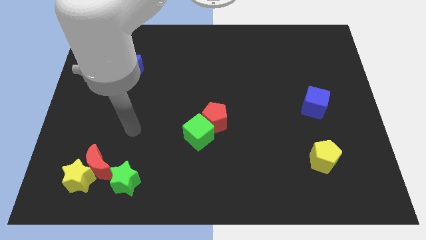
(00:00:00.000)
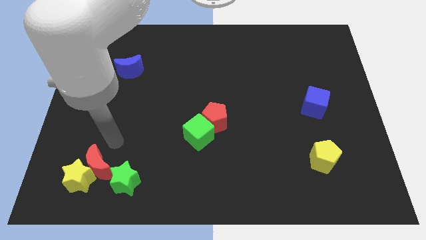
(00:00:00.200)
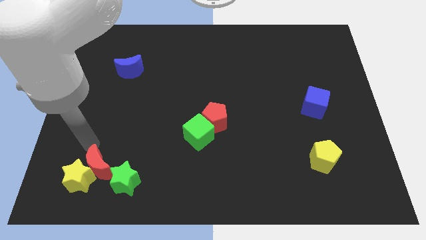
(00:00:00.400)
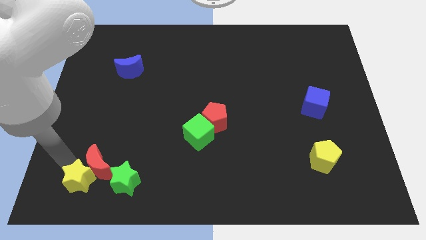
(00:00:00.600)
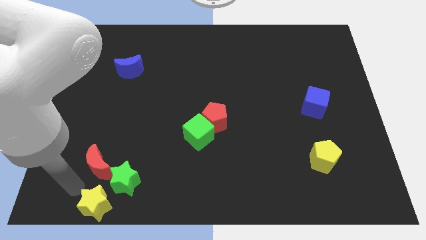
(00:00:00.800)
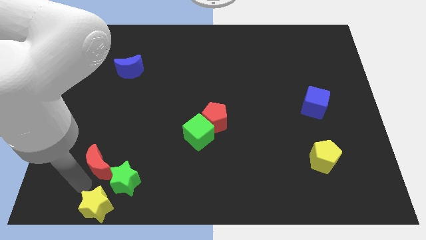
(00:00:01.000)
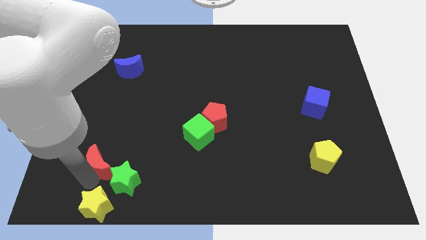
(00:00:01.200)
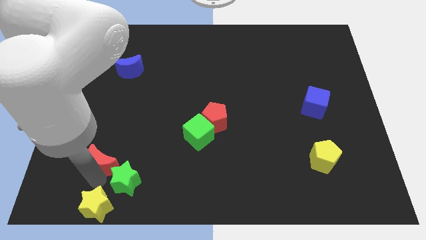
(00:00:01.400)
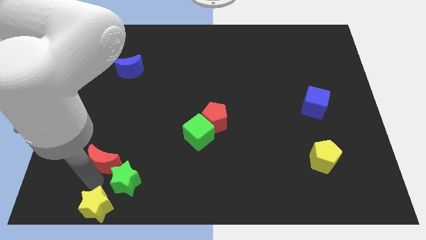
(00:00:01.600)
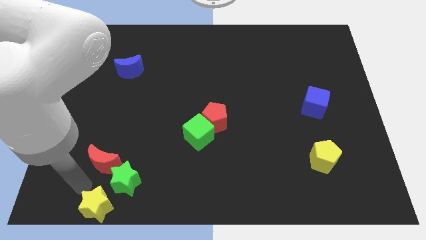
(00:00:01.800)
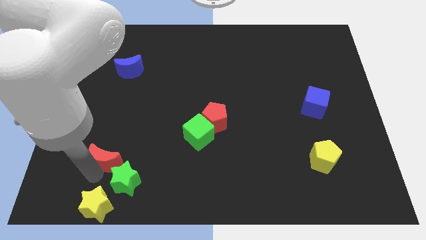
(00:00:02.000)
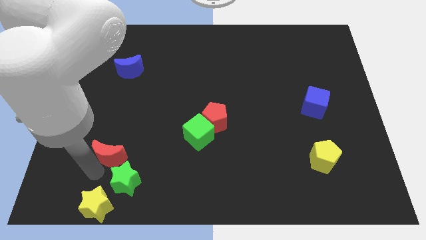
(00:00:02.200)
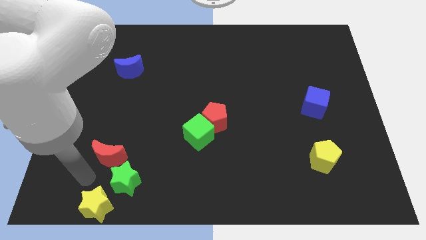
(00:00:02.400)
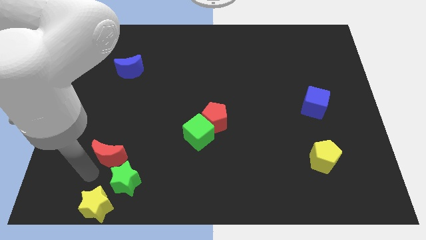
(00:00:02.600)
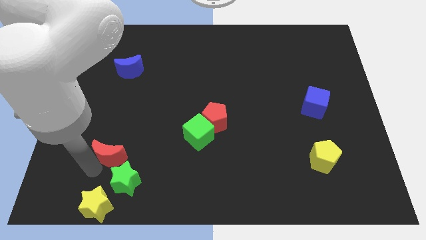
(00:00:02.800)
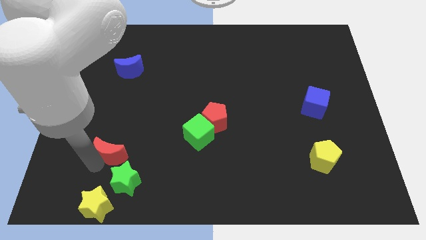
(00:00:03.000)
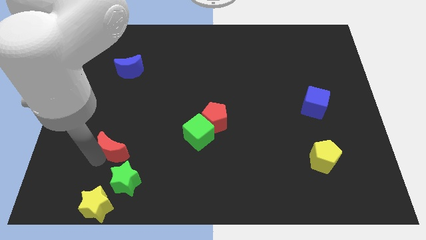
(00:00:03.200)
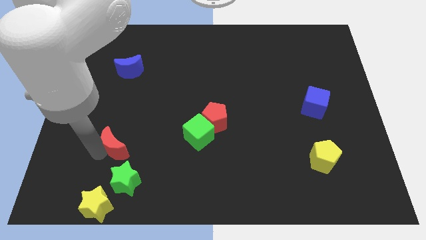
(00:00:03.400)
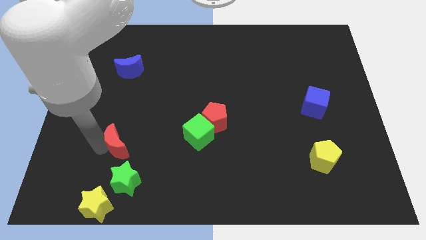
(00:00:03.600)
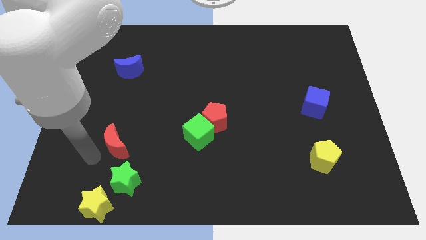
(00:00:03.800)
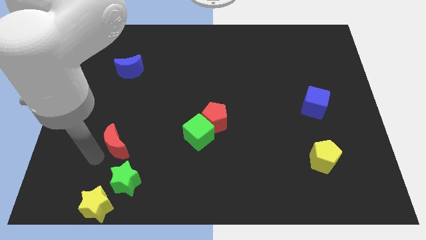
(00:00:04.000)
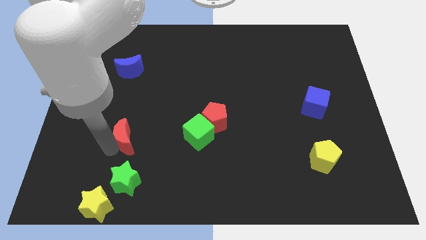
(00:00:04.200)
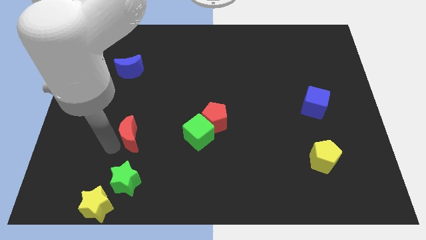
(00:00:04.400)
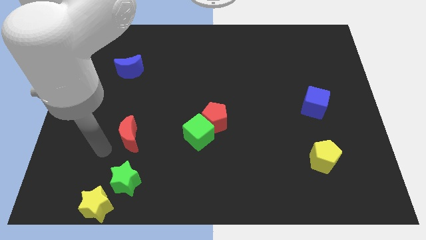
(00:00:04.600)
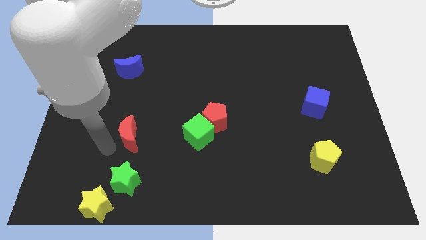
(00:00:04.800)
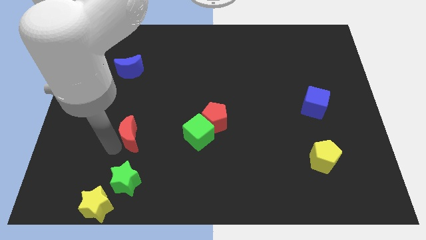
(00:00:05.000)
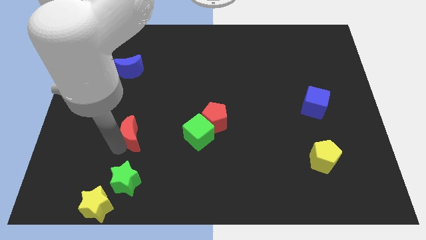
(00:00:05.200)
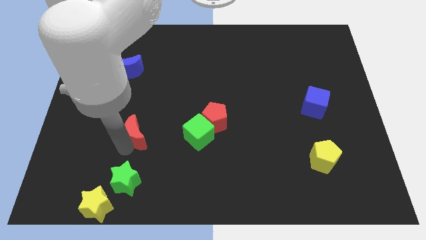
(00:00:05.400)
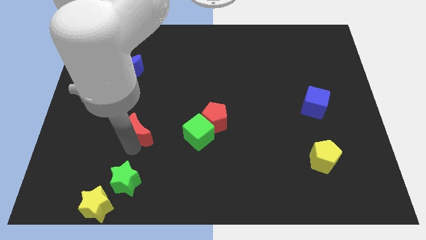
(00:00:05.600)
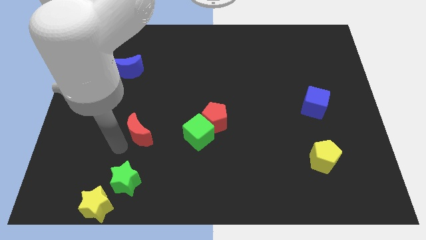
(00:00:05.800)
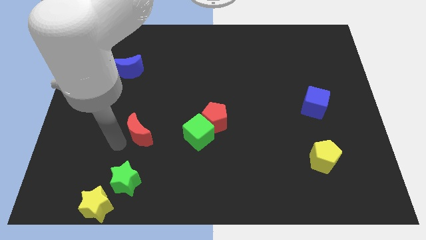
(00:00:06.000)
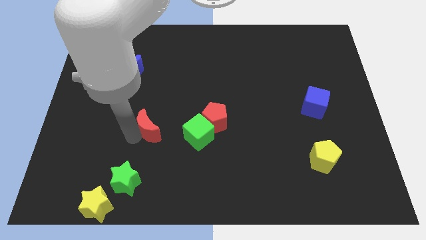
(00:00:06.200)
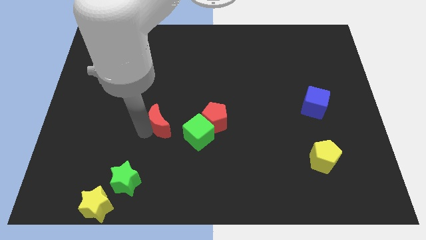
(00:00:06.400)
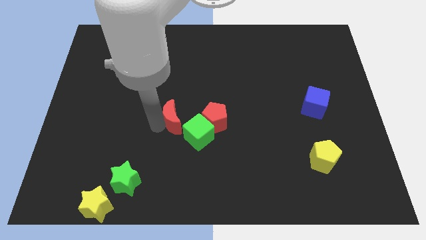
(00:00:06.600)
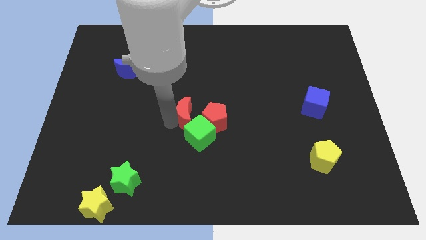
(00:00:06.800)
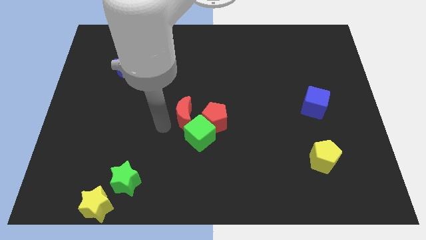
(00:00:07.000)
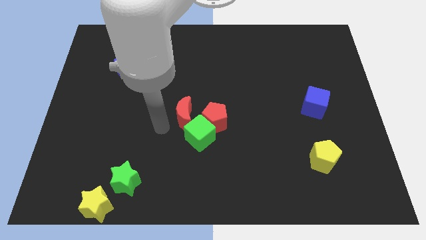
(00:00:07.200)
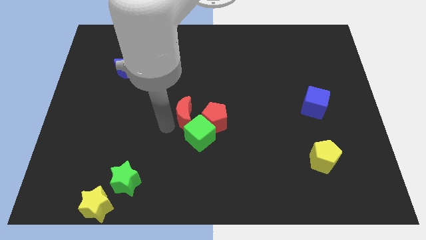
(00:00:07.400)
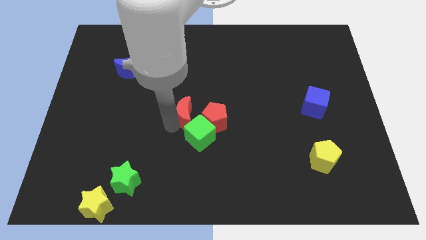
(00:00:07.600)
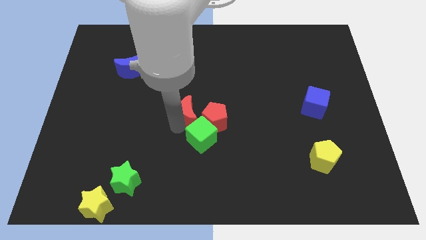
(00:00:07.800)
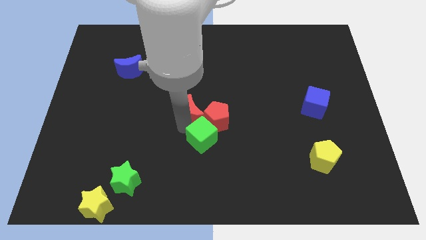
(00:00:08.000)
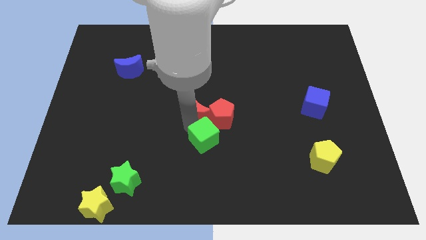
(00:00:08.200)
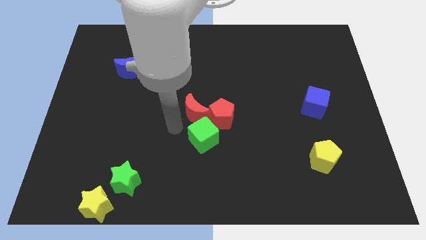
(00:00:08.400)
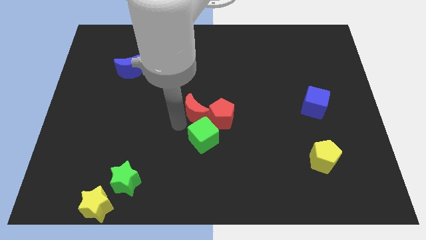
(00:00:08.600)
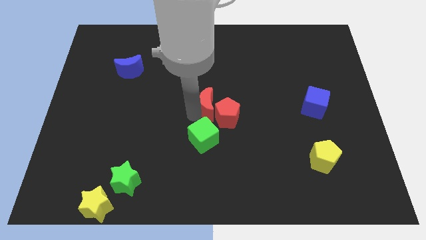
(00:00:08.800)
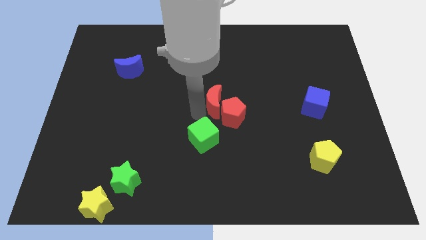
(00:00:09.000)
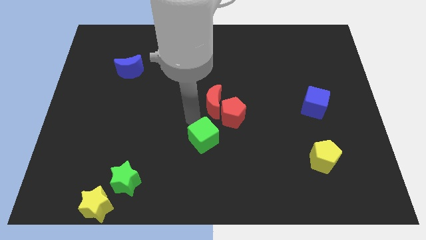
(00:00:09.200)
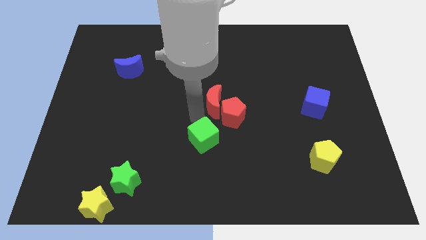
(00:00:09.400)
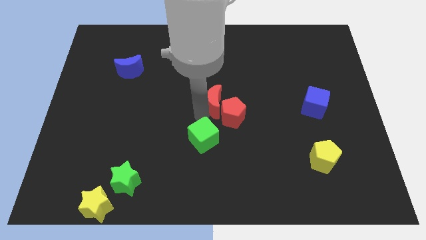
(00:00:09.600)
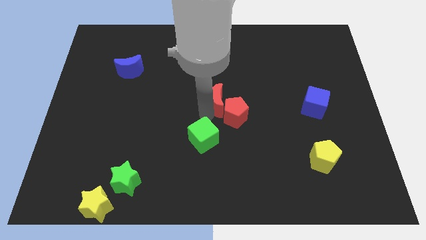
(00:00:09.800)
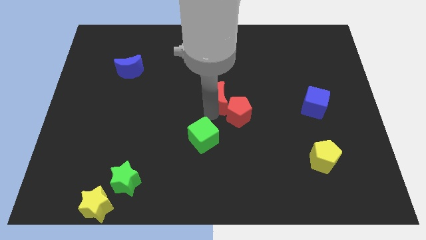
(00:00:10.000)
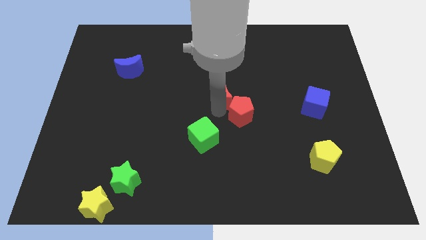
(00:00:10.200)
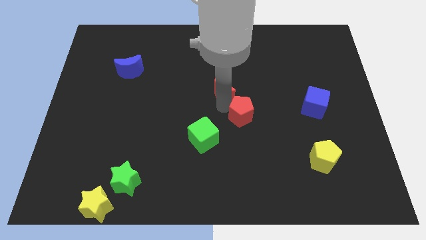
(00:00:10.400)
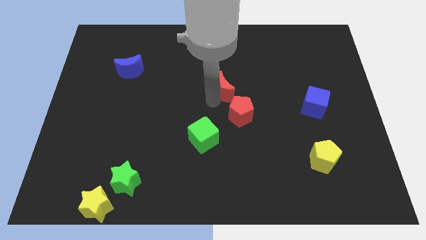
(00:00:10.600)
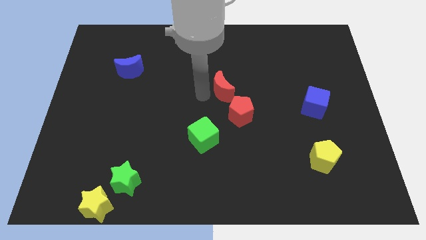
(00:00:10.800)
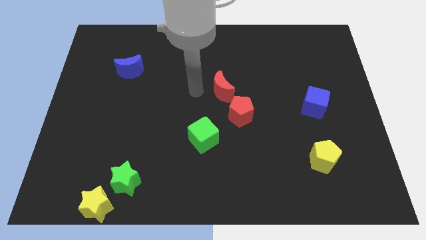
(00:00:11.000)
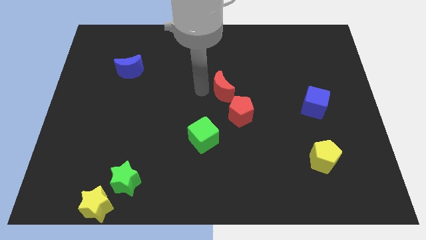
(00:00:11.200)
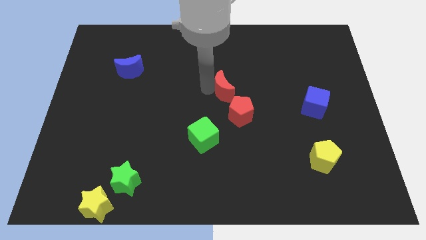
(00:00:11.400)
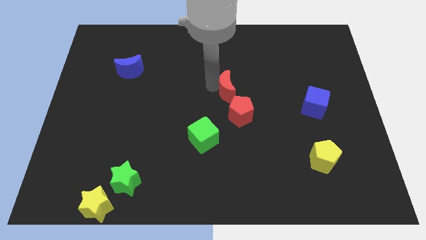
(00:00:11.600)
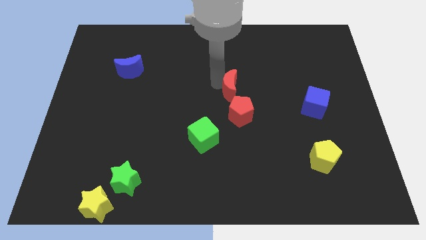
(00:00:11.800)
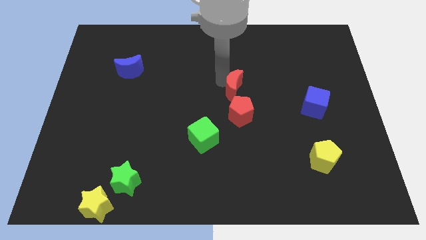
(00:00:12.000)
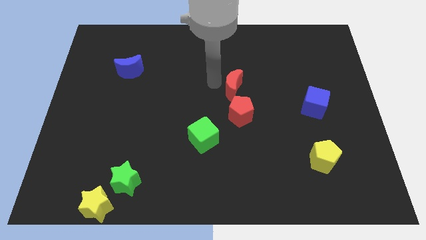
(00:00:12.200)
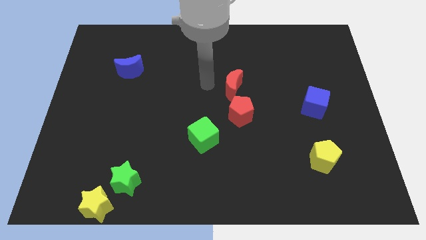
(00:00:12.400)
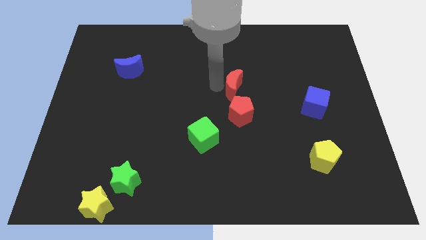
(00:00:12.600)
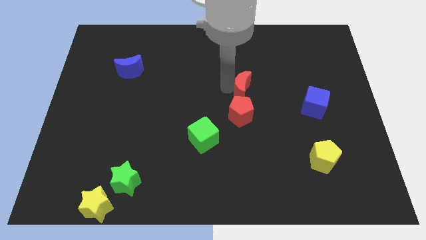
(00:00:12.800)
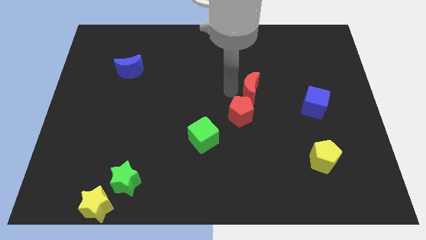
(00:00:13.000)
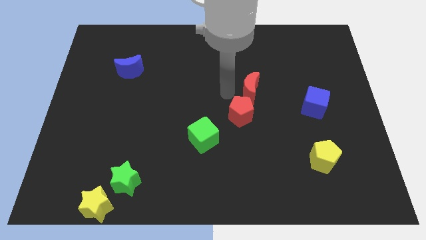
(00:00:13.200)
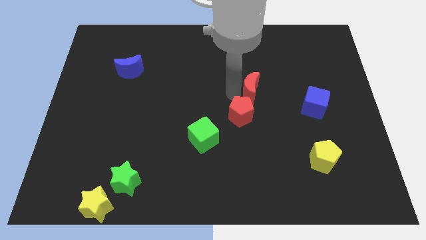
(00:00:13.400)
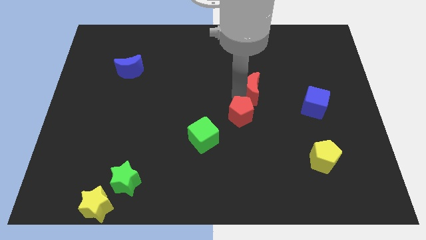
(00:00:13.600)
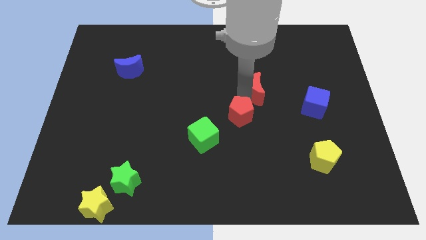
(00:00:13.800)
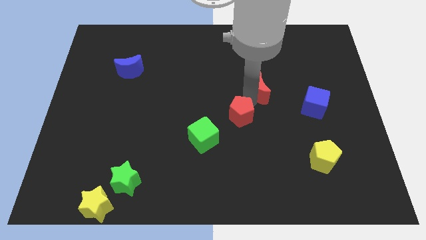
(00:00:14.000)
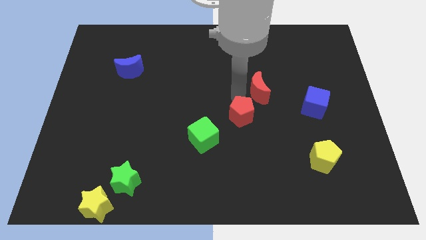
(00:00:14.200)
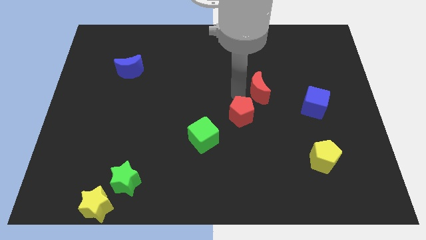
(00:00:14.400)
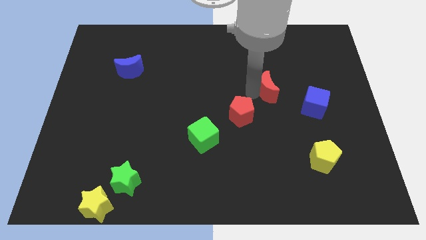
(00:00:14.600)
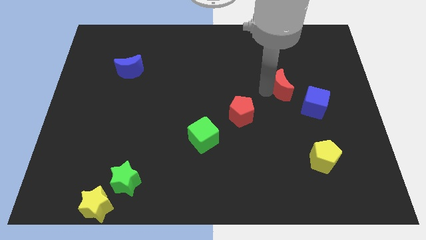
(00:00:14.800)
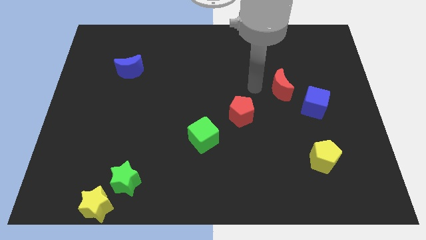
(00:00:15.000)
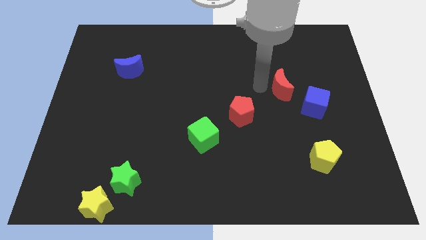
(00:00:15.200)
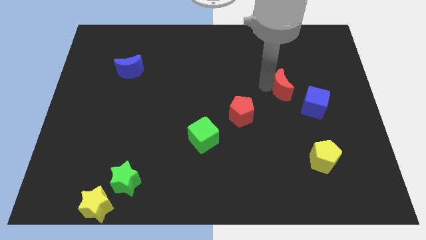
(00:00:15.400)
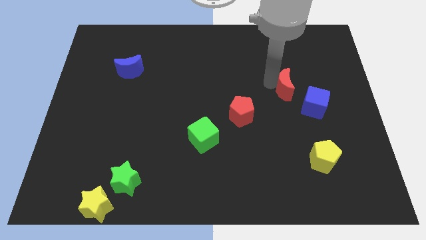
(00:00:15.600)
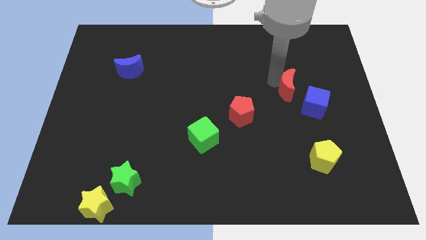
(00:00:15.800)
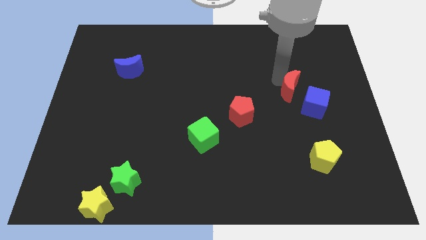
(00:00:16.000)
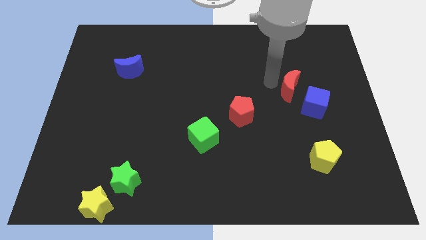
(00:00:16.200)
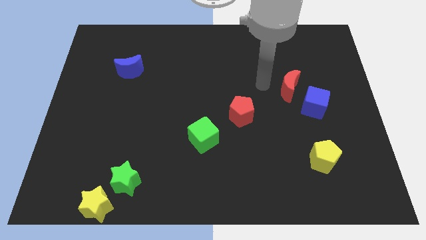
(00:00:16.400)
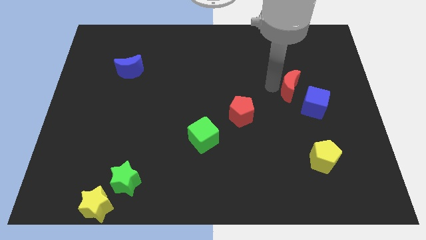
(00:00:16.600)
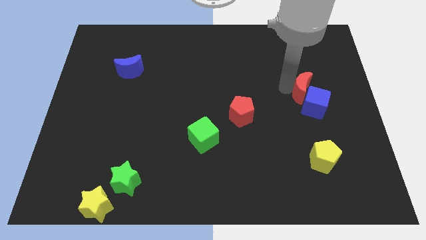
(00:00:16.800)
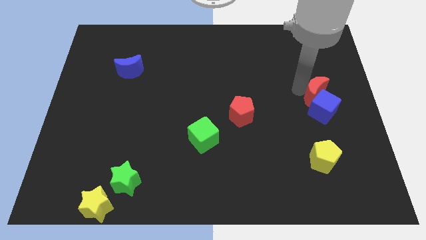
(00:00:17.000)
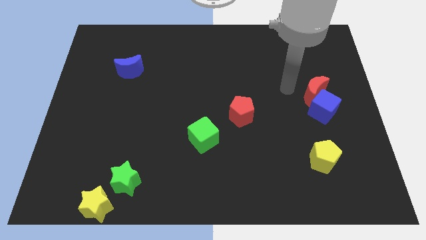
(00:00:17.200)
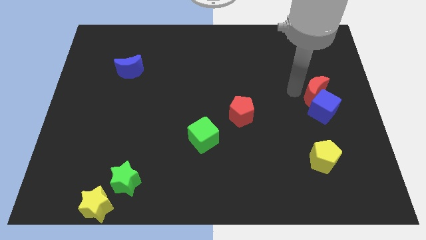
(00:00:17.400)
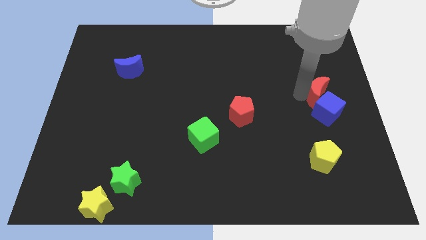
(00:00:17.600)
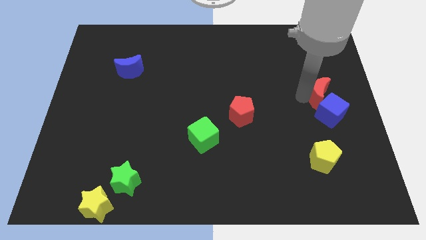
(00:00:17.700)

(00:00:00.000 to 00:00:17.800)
put the red moon to the right side of the board
